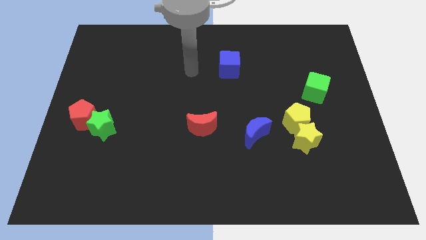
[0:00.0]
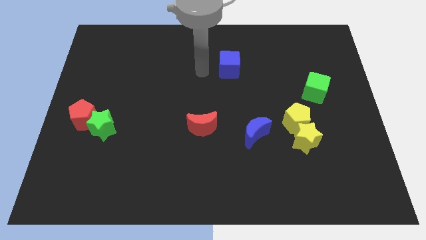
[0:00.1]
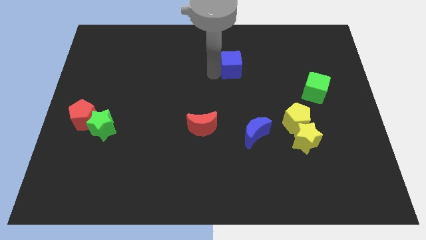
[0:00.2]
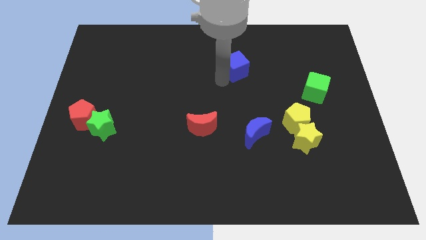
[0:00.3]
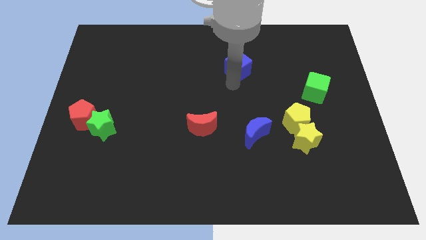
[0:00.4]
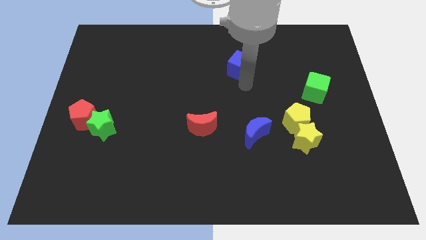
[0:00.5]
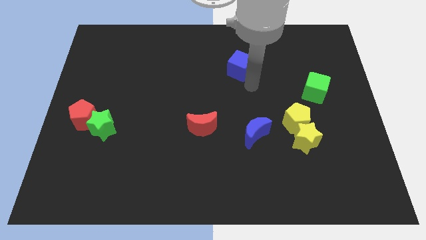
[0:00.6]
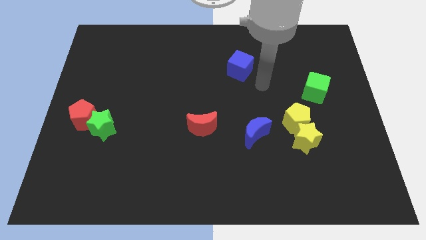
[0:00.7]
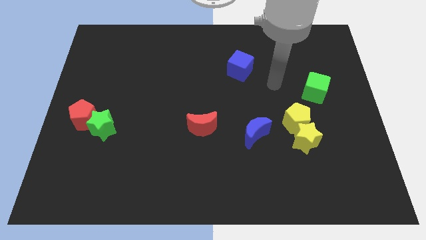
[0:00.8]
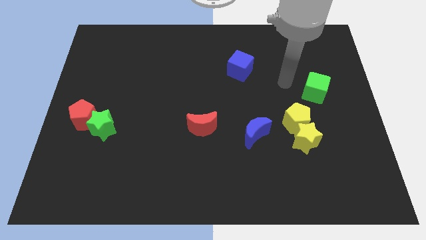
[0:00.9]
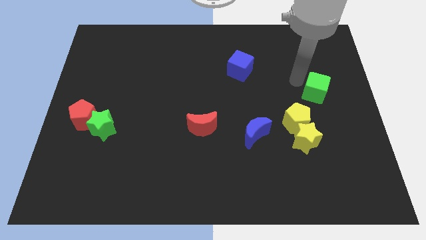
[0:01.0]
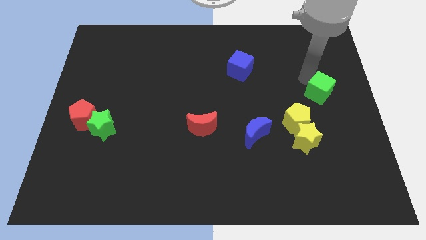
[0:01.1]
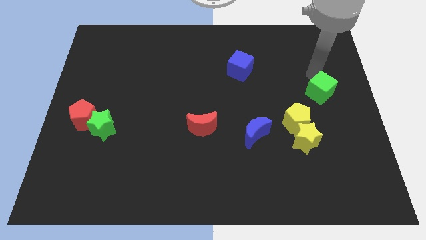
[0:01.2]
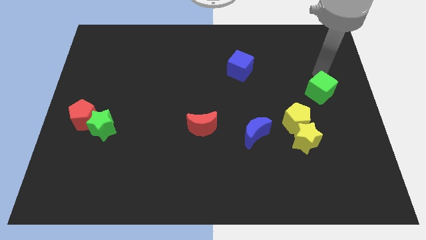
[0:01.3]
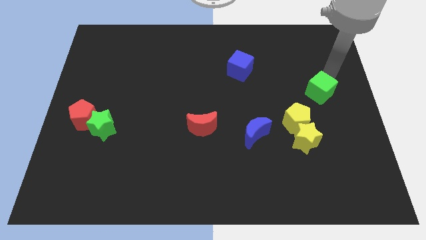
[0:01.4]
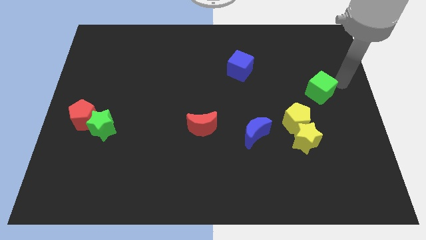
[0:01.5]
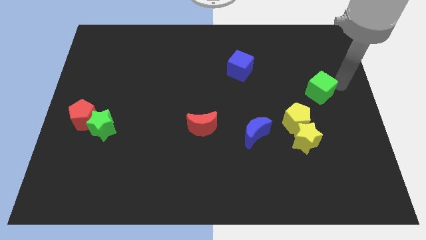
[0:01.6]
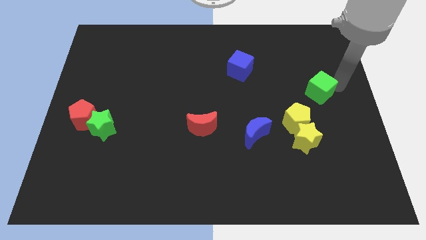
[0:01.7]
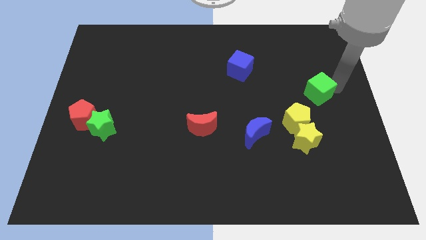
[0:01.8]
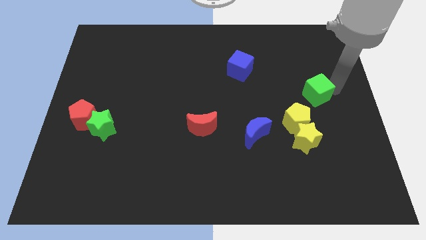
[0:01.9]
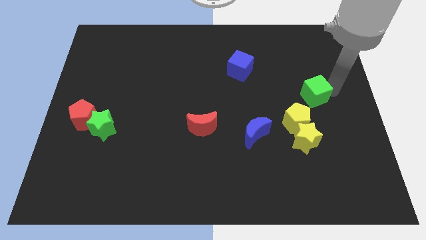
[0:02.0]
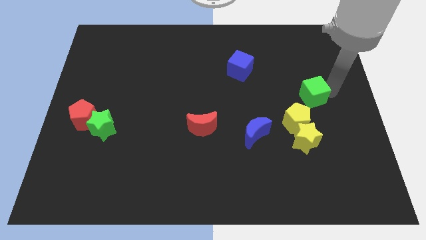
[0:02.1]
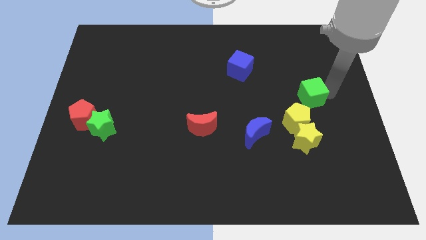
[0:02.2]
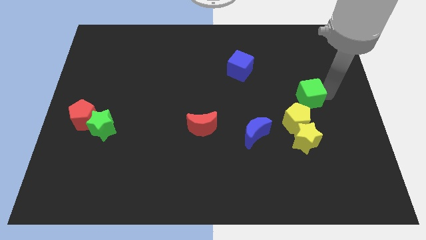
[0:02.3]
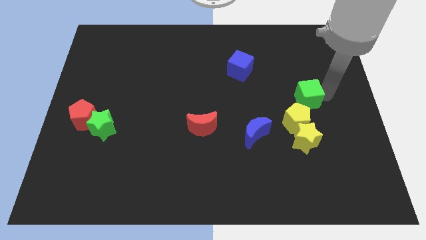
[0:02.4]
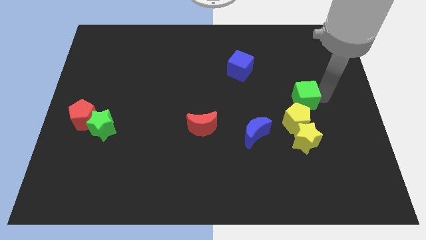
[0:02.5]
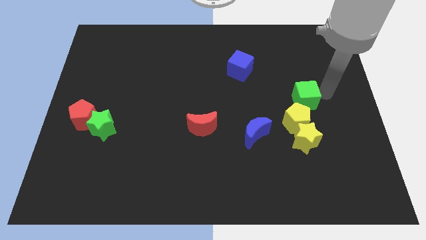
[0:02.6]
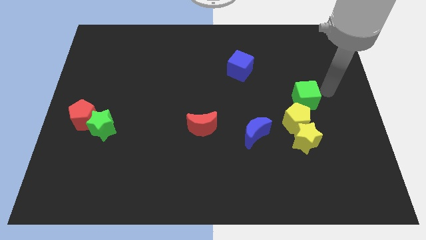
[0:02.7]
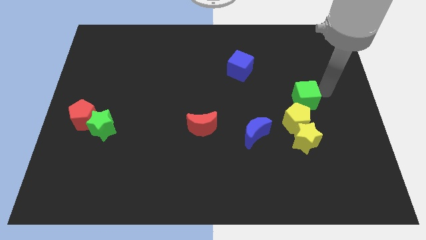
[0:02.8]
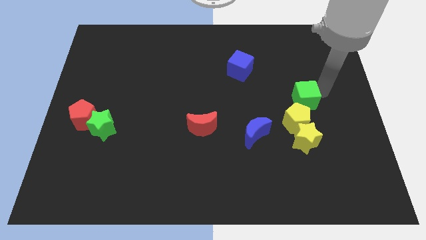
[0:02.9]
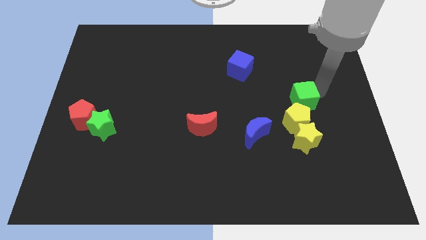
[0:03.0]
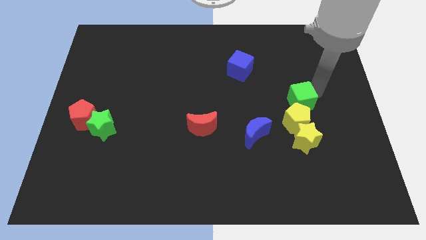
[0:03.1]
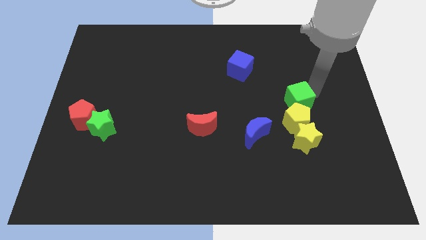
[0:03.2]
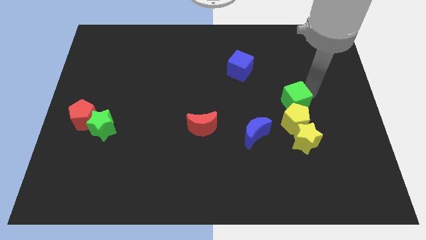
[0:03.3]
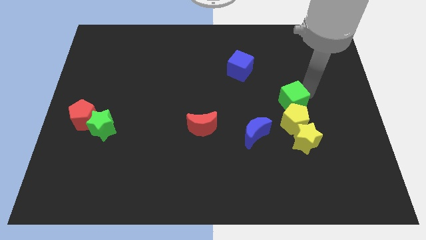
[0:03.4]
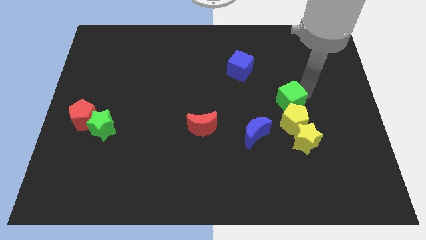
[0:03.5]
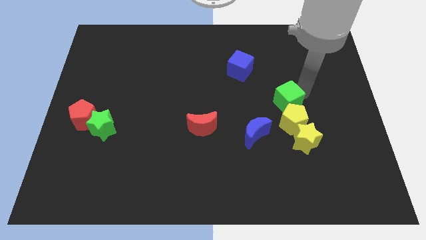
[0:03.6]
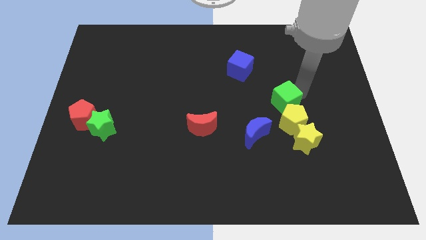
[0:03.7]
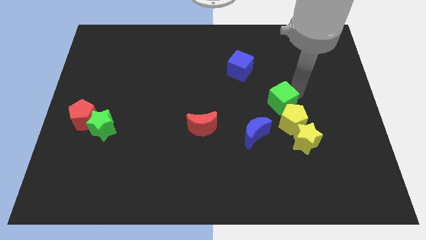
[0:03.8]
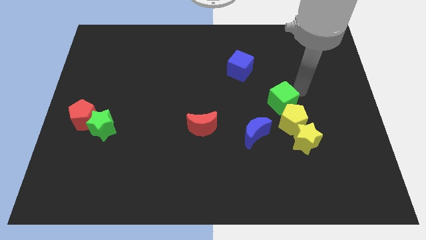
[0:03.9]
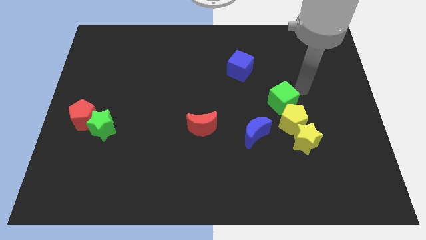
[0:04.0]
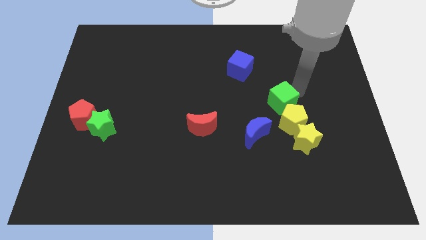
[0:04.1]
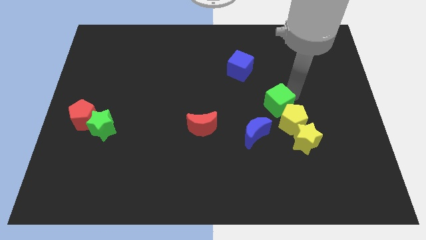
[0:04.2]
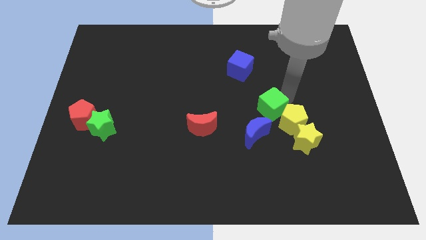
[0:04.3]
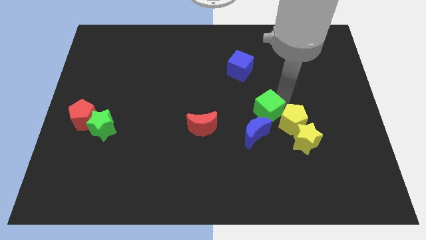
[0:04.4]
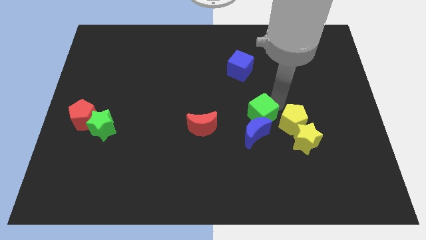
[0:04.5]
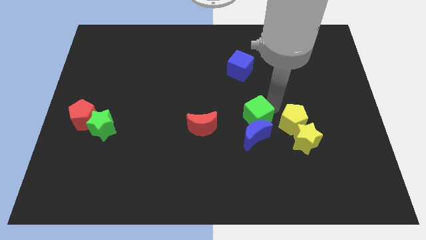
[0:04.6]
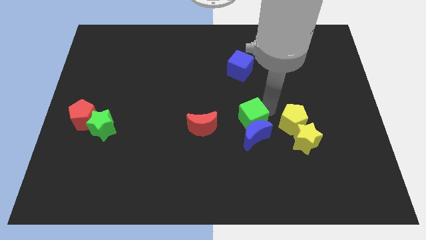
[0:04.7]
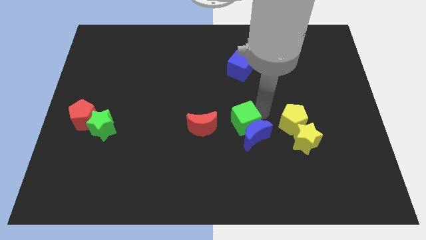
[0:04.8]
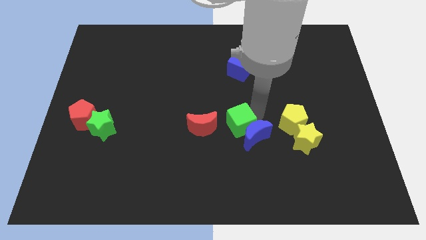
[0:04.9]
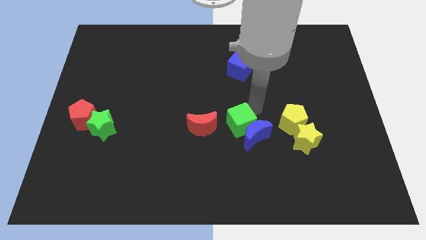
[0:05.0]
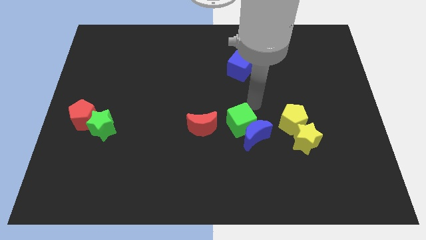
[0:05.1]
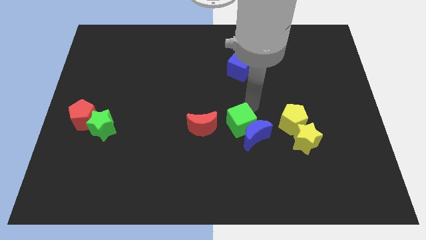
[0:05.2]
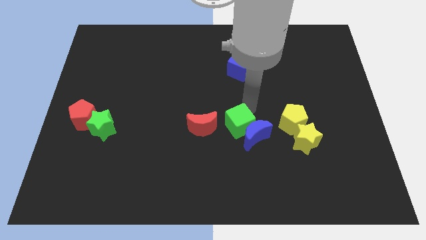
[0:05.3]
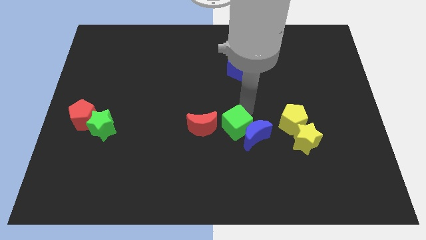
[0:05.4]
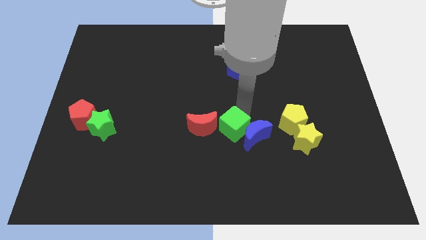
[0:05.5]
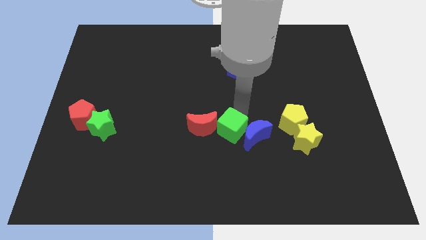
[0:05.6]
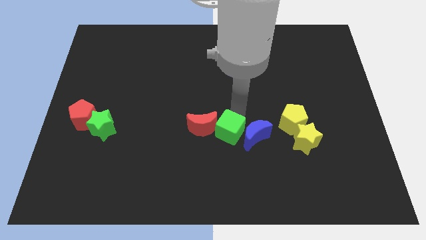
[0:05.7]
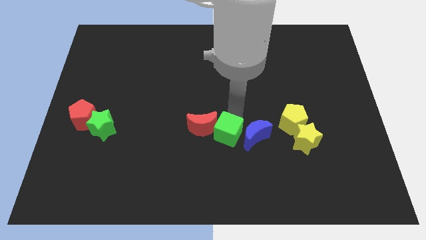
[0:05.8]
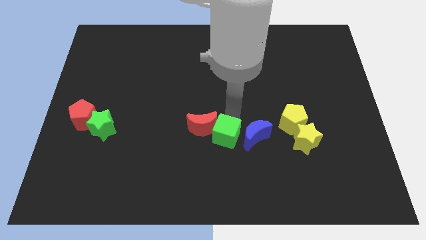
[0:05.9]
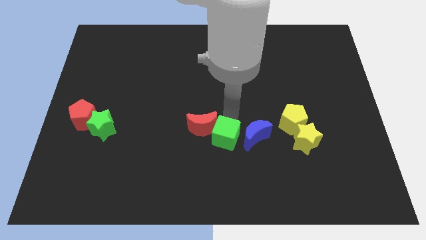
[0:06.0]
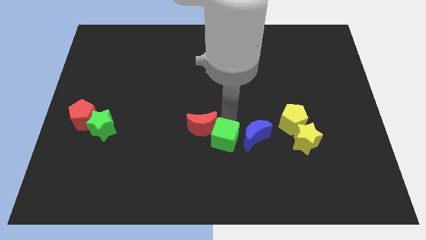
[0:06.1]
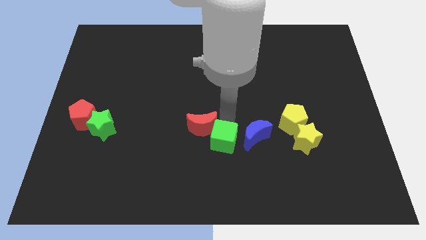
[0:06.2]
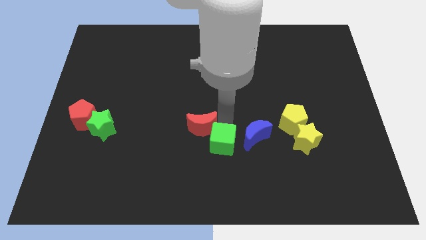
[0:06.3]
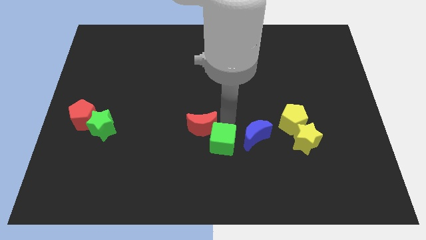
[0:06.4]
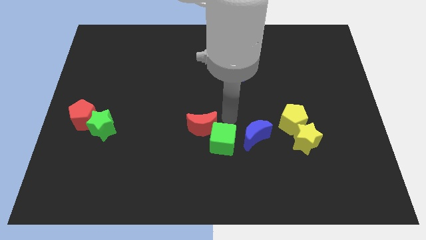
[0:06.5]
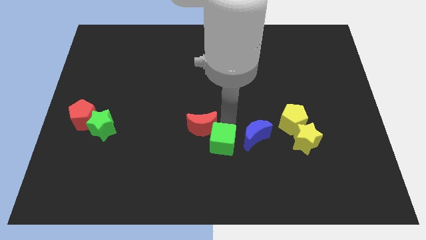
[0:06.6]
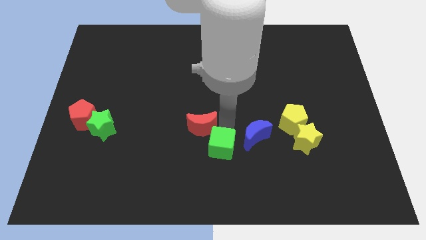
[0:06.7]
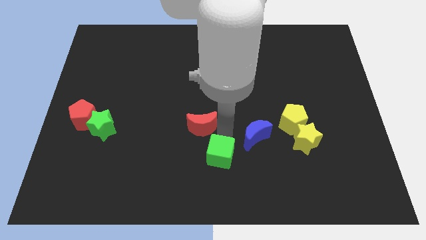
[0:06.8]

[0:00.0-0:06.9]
move the green cube to the bottom side
